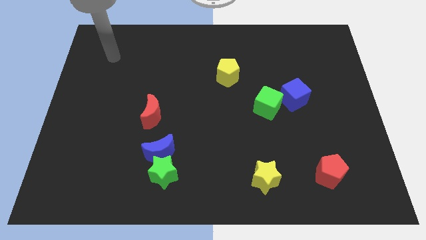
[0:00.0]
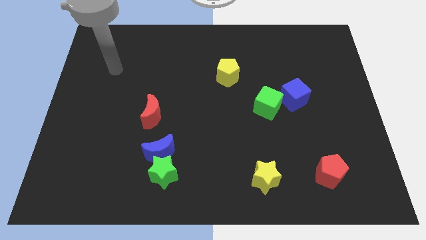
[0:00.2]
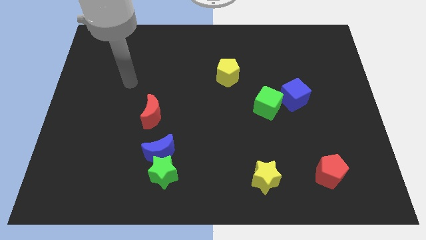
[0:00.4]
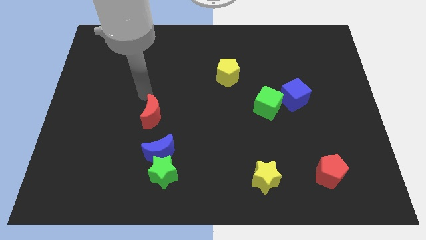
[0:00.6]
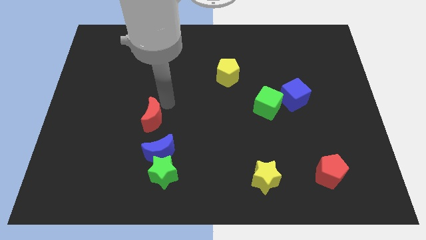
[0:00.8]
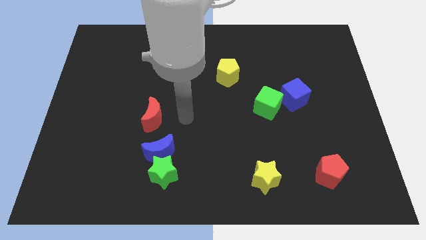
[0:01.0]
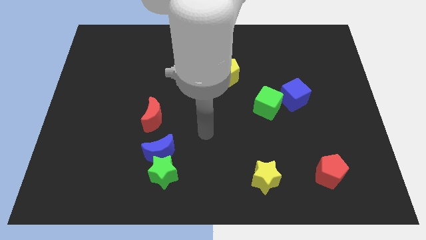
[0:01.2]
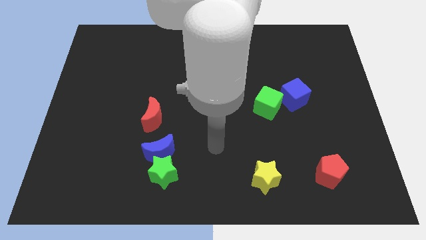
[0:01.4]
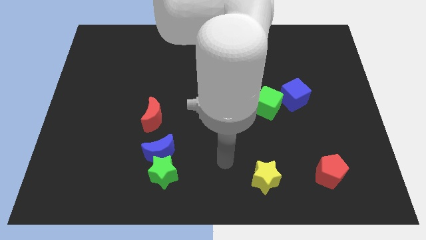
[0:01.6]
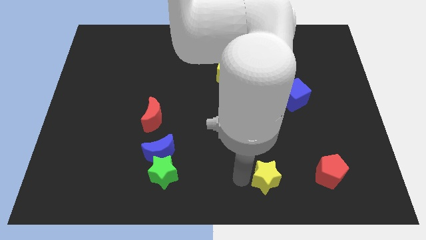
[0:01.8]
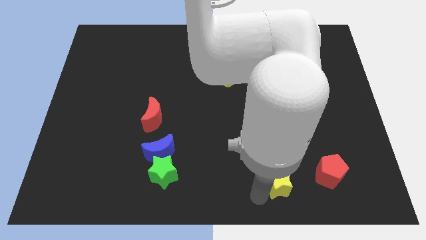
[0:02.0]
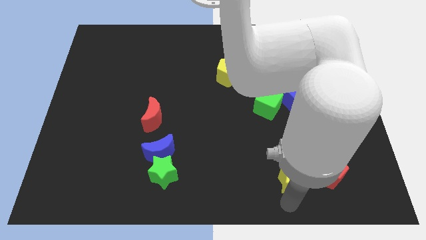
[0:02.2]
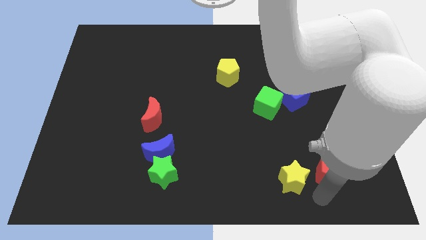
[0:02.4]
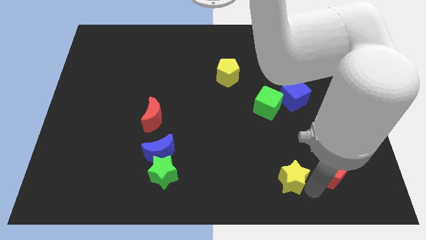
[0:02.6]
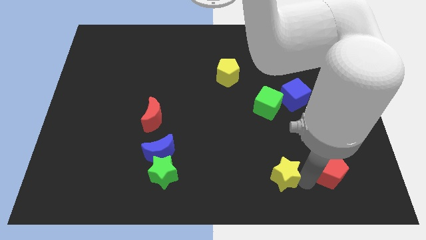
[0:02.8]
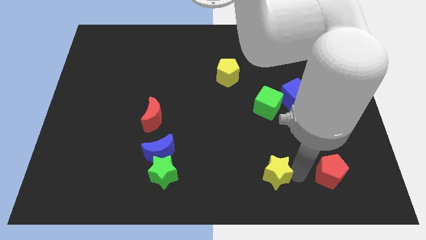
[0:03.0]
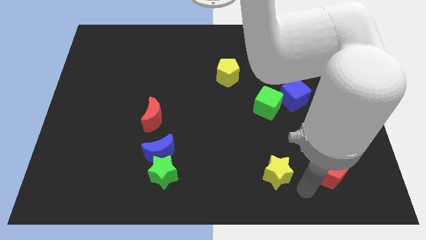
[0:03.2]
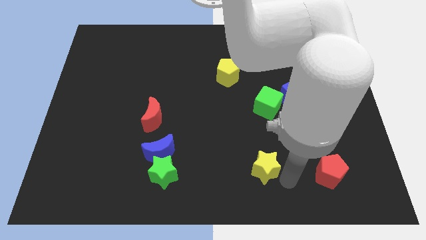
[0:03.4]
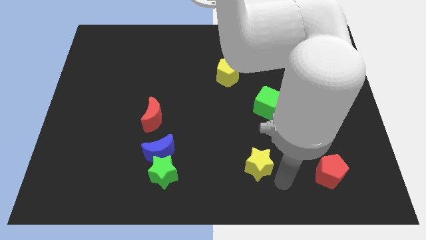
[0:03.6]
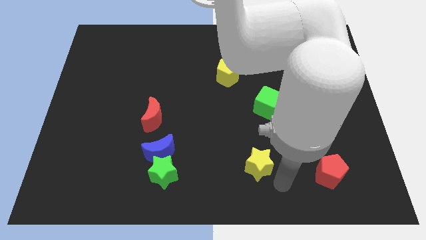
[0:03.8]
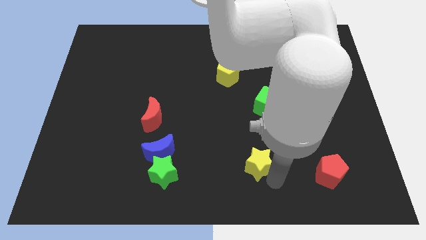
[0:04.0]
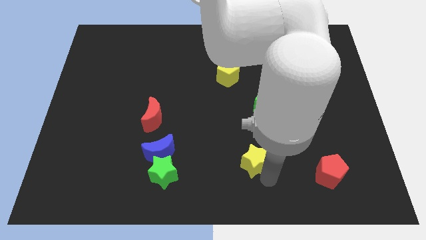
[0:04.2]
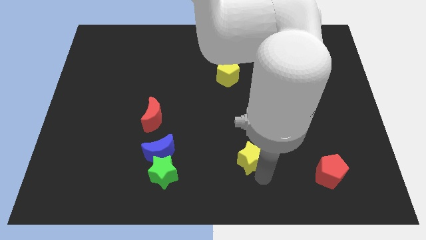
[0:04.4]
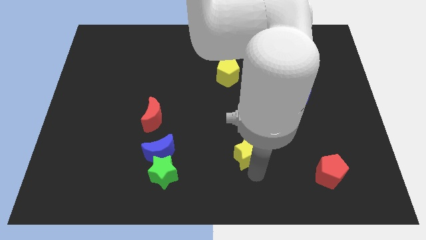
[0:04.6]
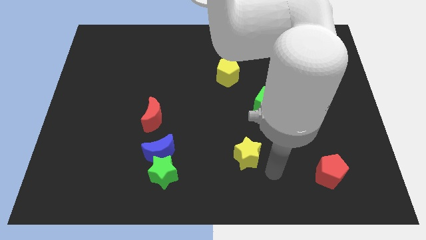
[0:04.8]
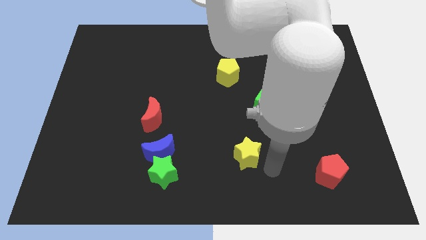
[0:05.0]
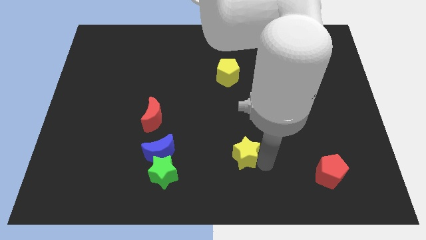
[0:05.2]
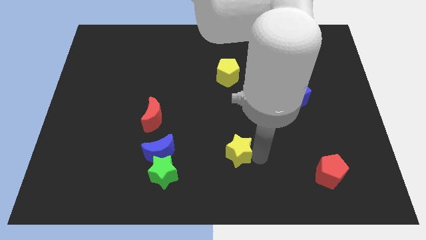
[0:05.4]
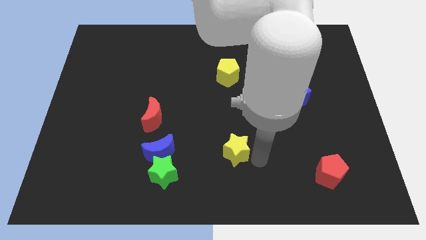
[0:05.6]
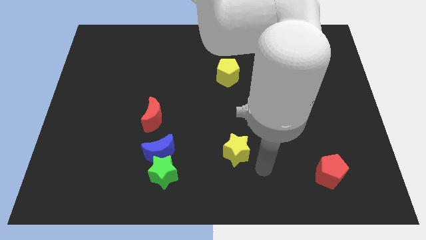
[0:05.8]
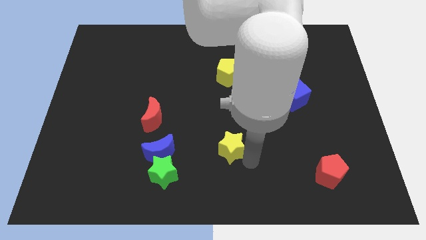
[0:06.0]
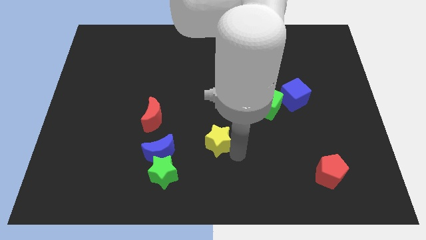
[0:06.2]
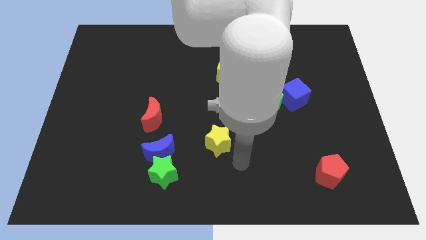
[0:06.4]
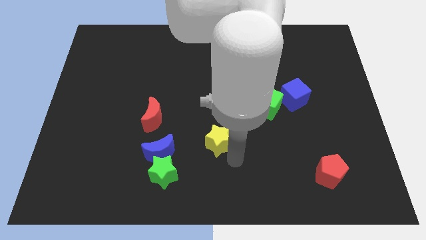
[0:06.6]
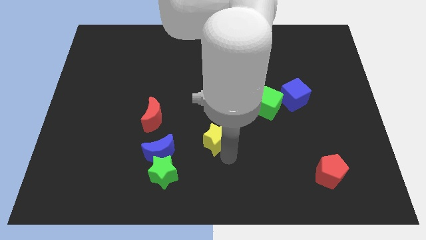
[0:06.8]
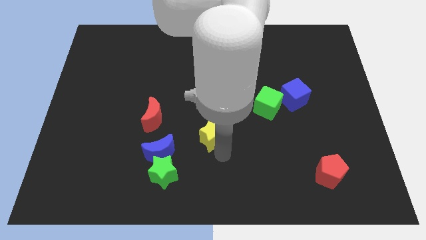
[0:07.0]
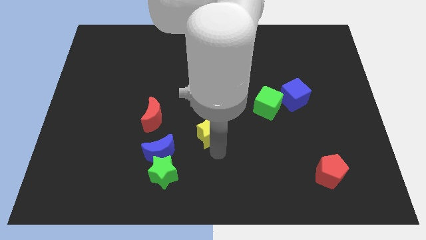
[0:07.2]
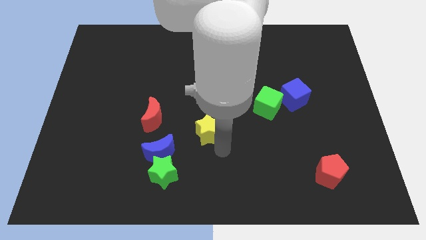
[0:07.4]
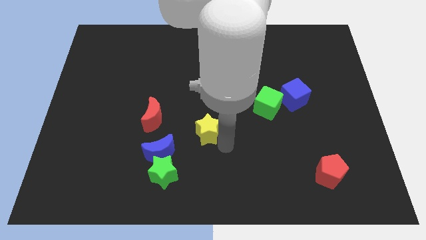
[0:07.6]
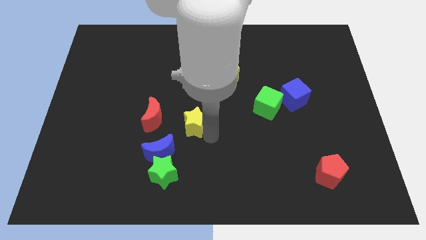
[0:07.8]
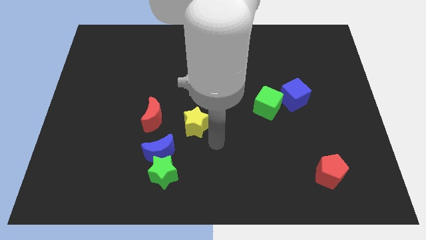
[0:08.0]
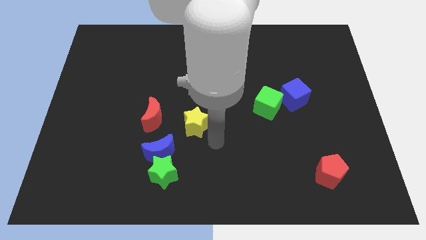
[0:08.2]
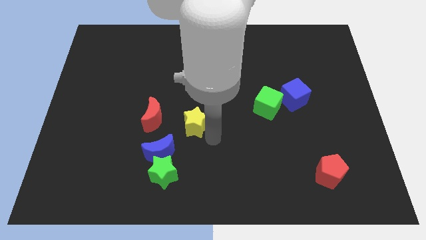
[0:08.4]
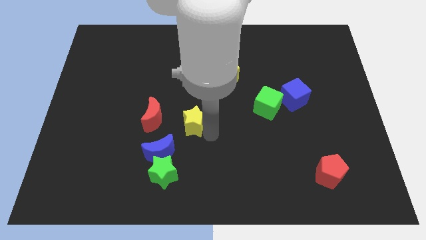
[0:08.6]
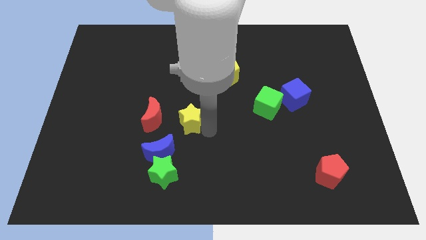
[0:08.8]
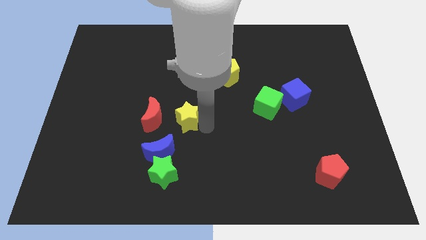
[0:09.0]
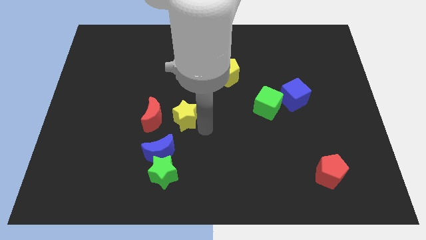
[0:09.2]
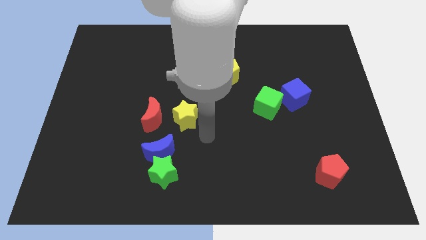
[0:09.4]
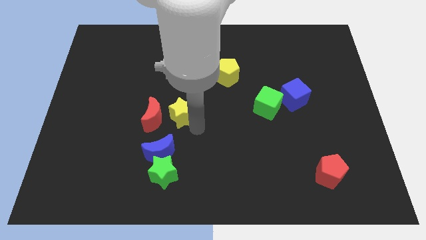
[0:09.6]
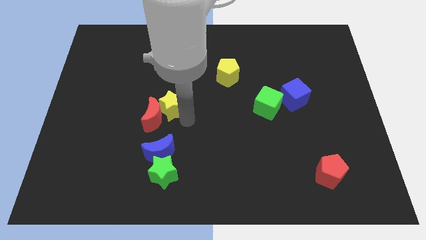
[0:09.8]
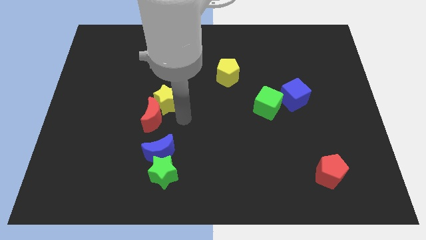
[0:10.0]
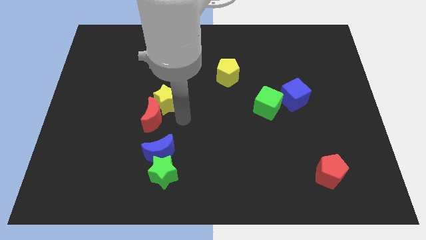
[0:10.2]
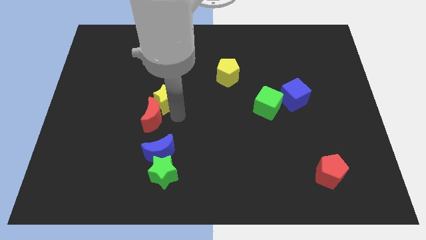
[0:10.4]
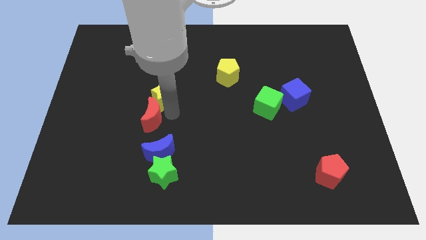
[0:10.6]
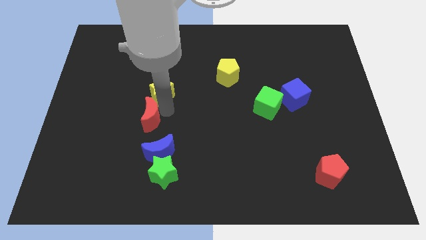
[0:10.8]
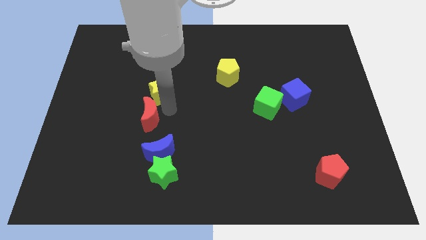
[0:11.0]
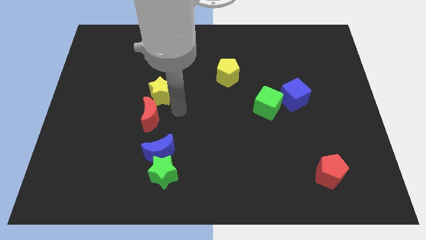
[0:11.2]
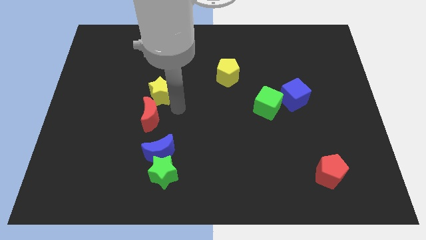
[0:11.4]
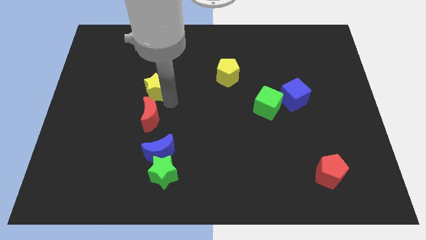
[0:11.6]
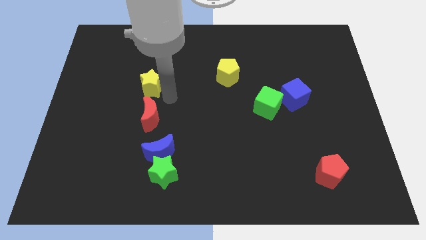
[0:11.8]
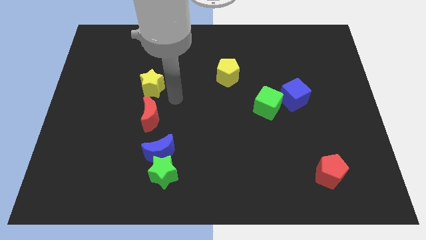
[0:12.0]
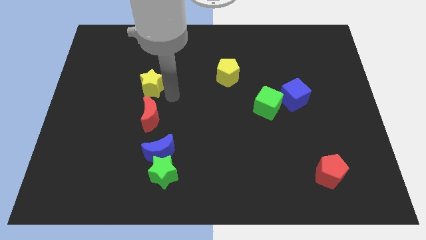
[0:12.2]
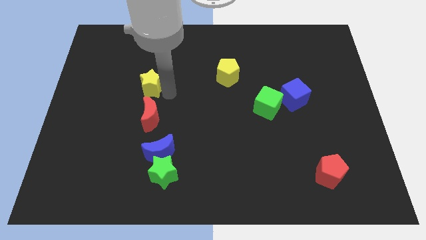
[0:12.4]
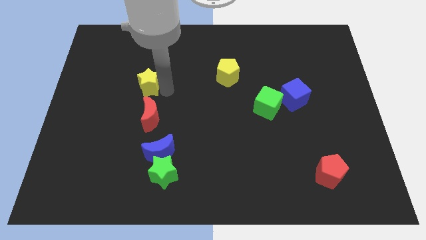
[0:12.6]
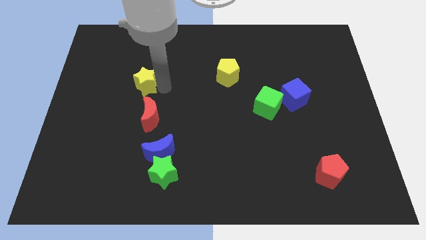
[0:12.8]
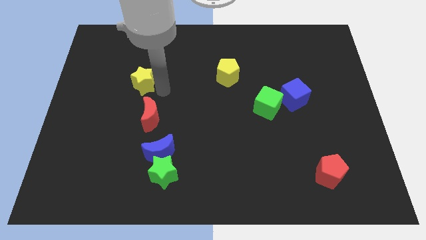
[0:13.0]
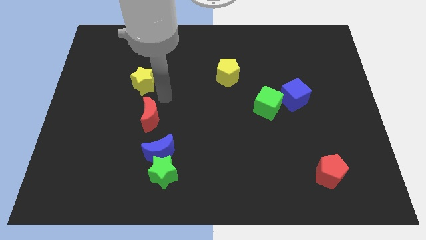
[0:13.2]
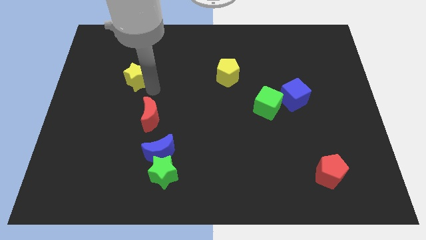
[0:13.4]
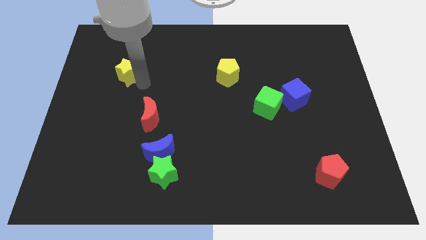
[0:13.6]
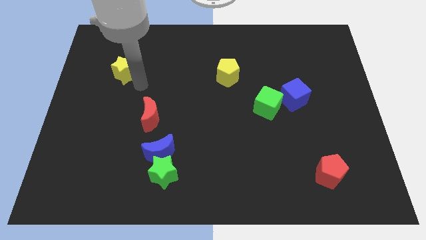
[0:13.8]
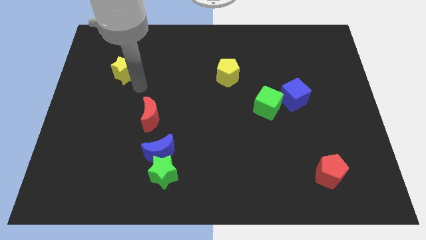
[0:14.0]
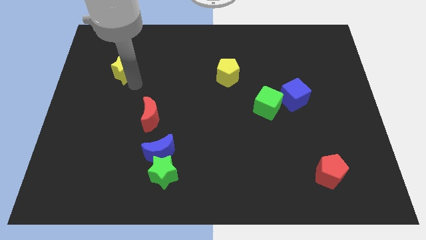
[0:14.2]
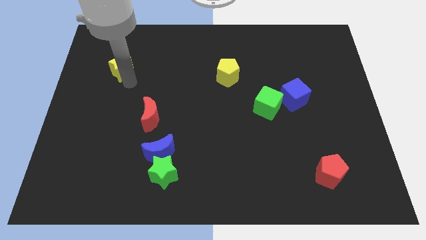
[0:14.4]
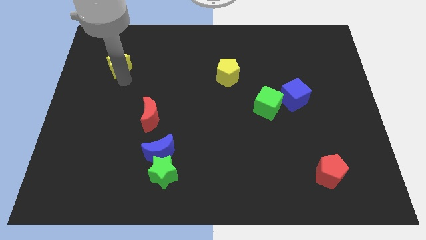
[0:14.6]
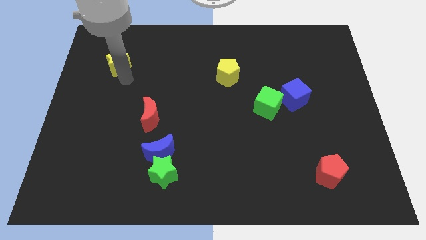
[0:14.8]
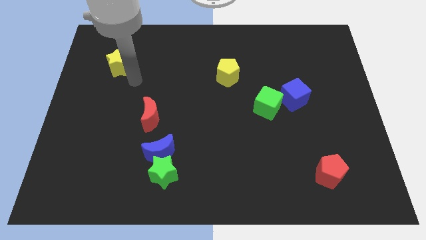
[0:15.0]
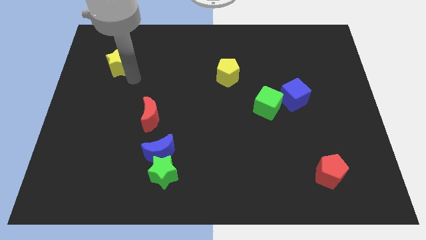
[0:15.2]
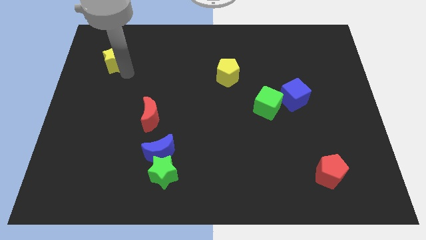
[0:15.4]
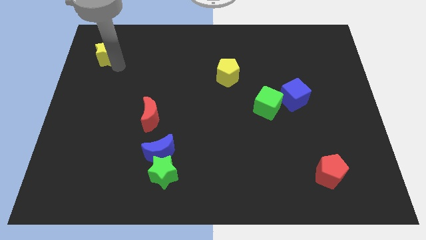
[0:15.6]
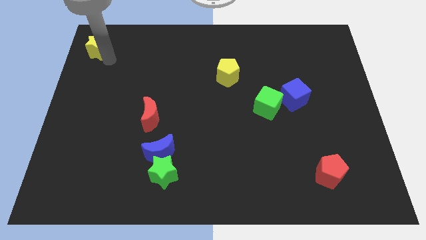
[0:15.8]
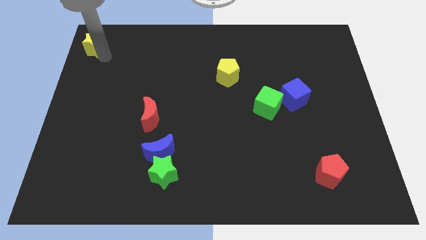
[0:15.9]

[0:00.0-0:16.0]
slide the yellow star to the top left of the board
